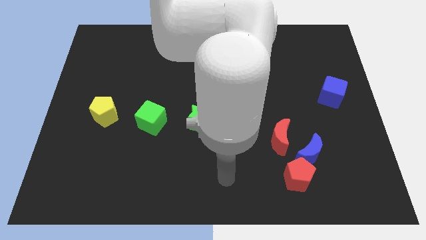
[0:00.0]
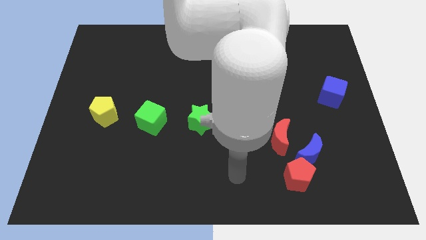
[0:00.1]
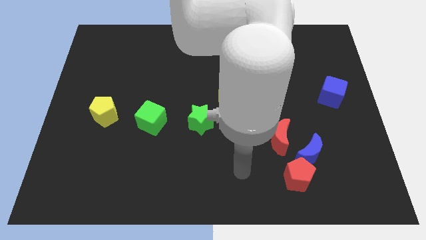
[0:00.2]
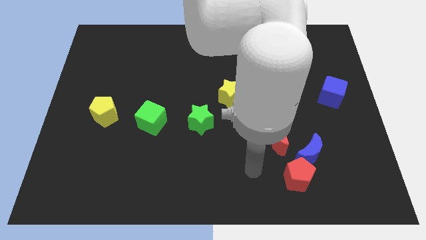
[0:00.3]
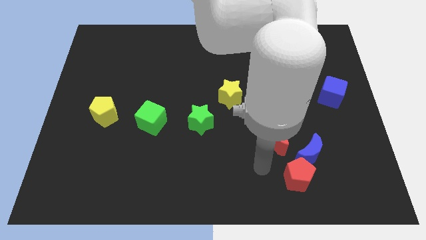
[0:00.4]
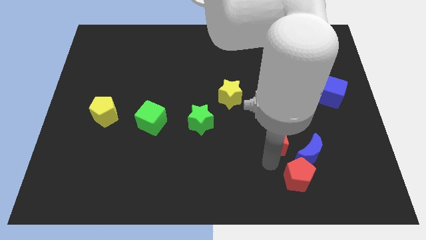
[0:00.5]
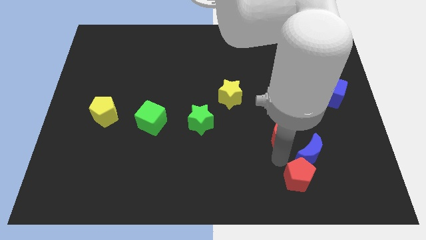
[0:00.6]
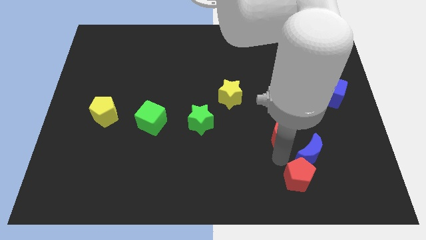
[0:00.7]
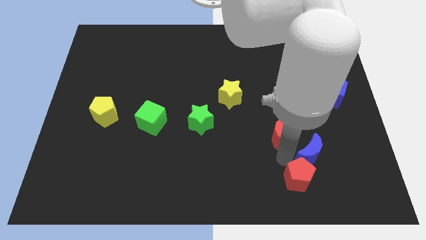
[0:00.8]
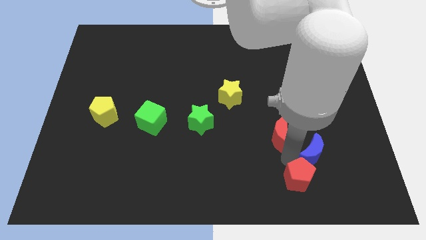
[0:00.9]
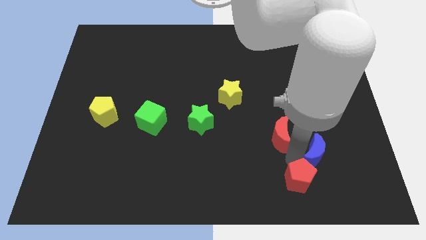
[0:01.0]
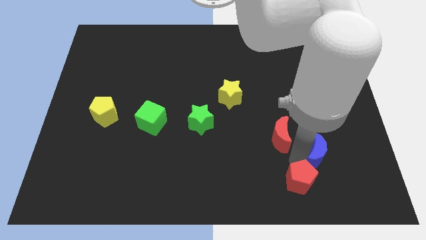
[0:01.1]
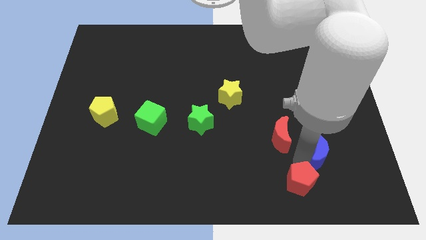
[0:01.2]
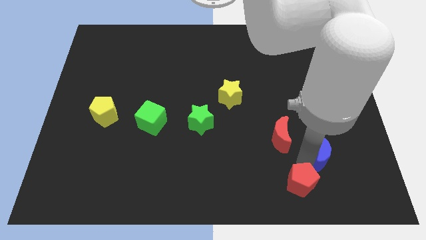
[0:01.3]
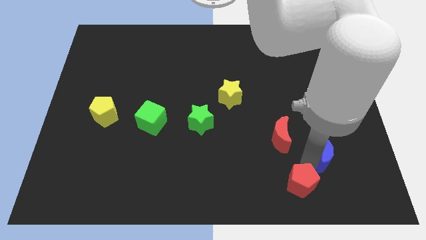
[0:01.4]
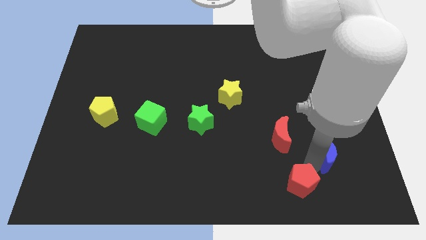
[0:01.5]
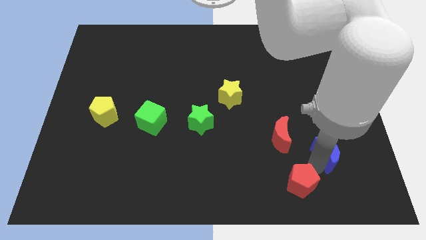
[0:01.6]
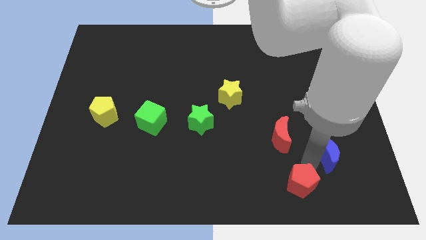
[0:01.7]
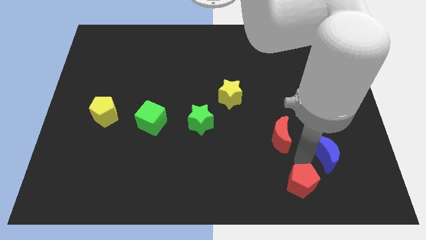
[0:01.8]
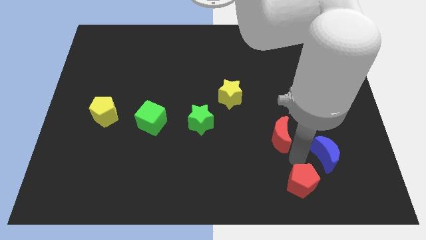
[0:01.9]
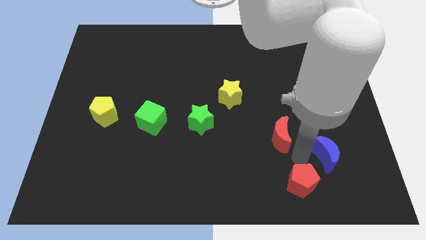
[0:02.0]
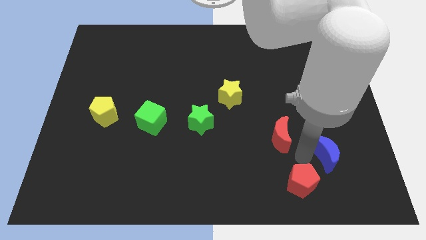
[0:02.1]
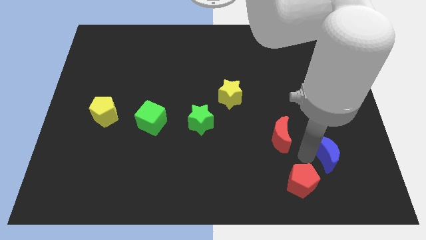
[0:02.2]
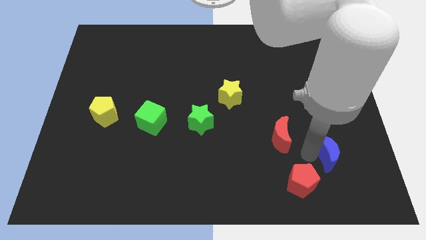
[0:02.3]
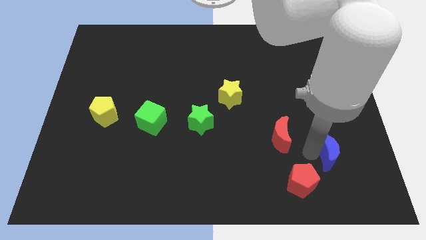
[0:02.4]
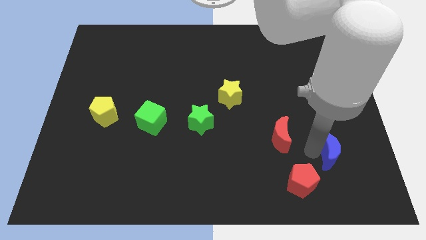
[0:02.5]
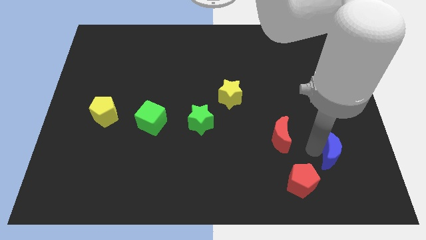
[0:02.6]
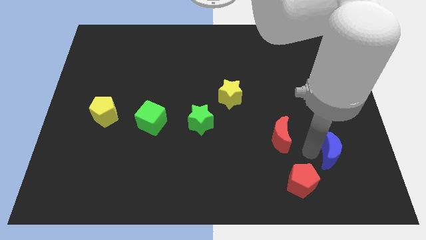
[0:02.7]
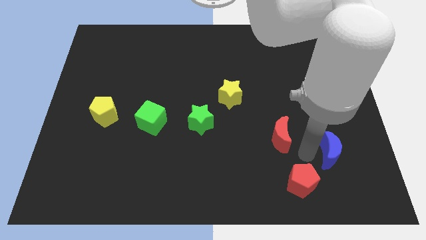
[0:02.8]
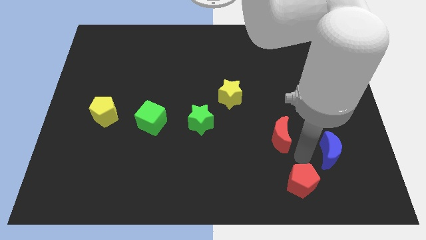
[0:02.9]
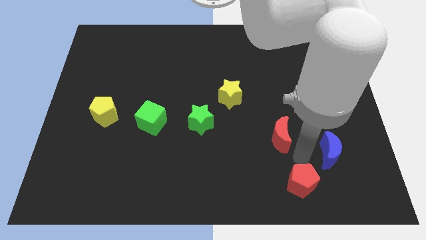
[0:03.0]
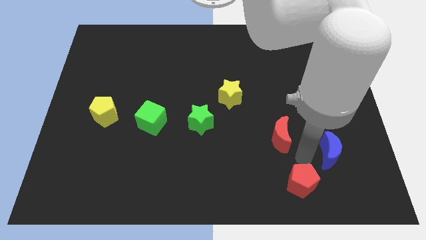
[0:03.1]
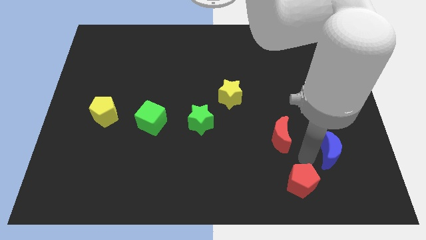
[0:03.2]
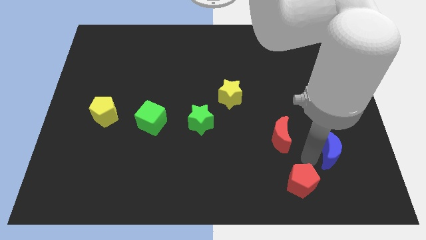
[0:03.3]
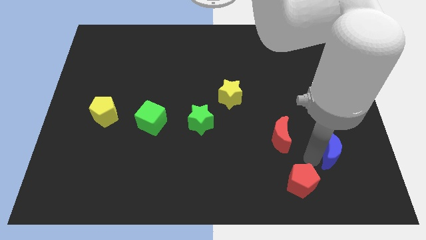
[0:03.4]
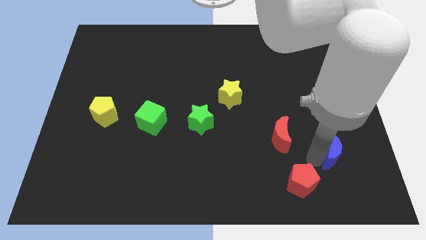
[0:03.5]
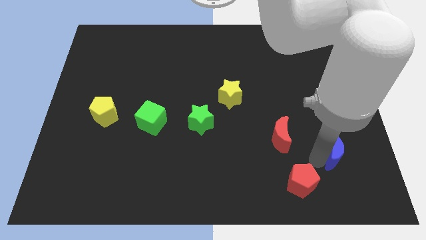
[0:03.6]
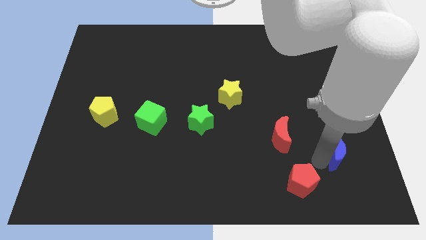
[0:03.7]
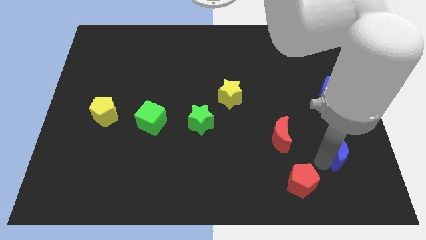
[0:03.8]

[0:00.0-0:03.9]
separate the blue moon from the red pentagon and red moon

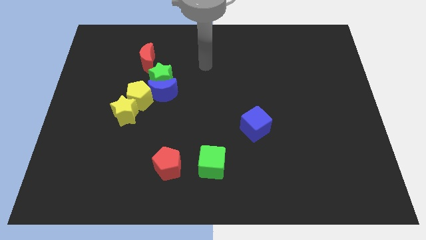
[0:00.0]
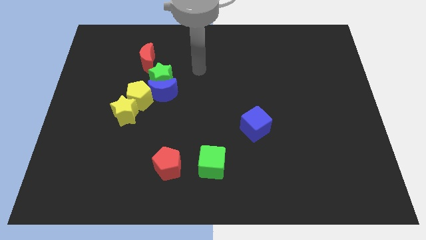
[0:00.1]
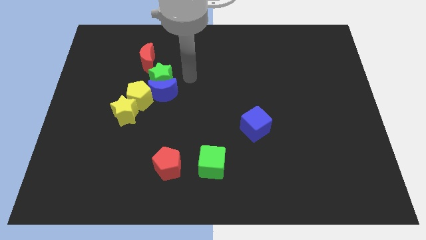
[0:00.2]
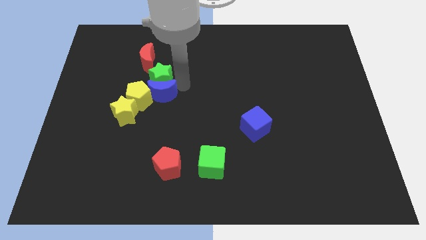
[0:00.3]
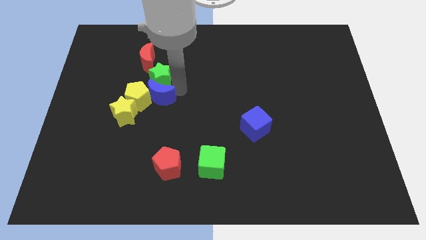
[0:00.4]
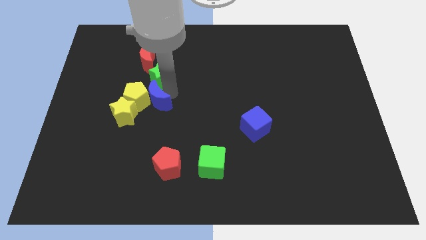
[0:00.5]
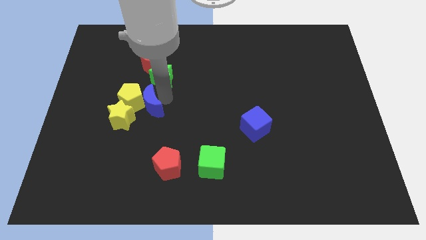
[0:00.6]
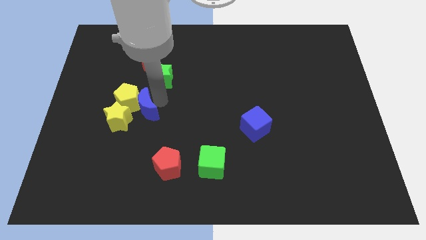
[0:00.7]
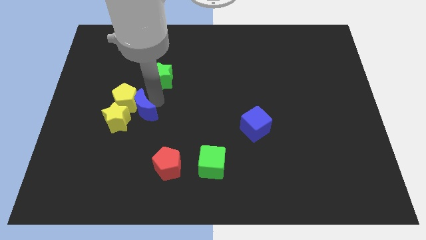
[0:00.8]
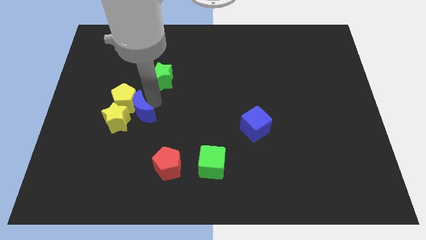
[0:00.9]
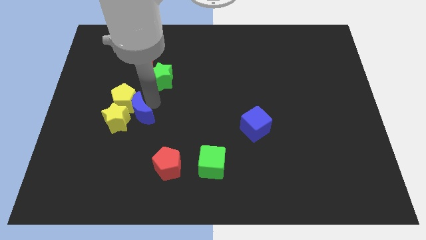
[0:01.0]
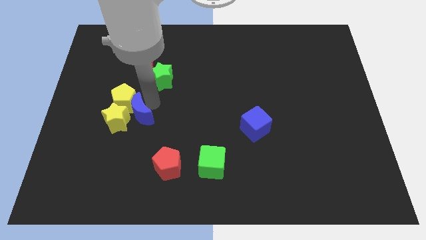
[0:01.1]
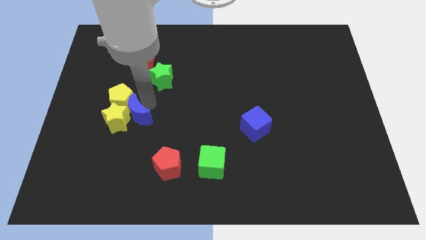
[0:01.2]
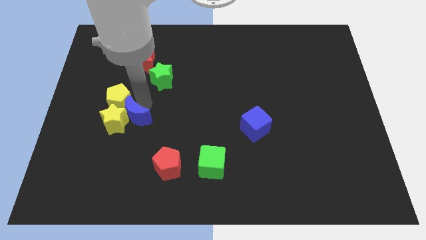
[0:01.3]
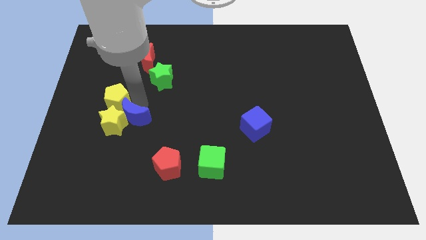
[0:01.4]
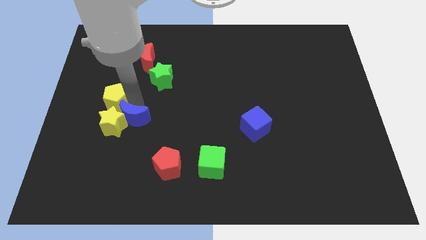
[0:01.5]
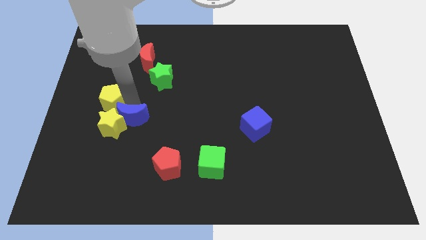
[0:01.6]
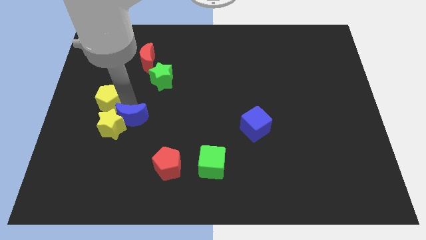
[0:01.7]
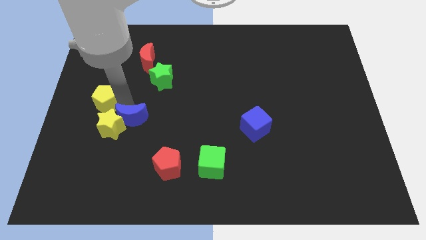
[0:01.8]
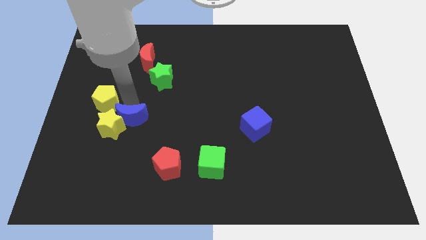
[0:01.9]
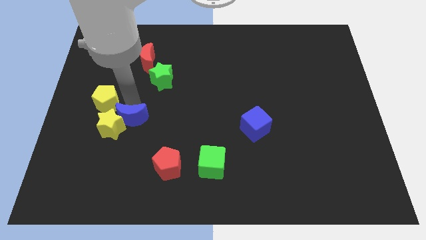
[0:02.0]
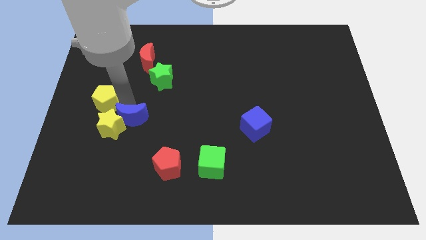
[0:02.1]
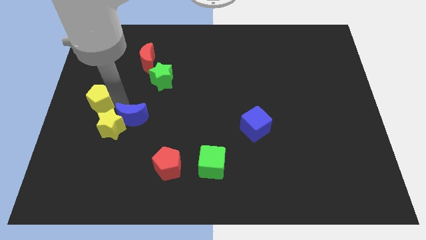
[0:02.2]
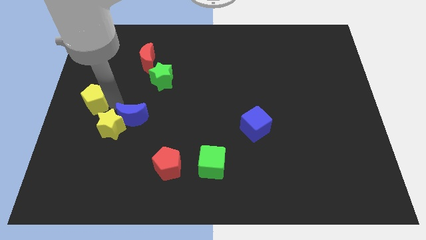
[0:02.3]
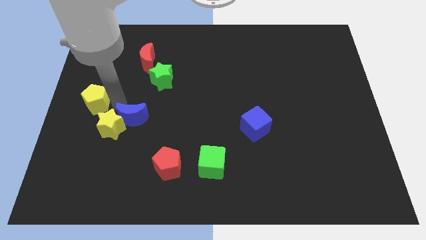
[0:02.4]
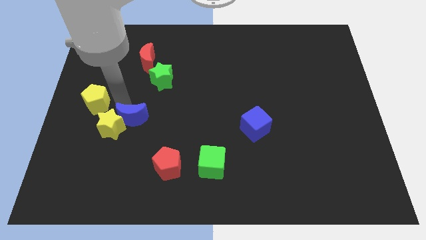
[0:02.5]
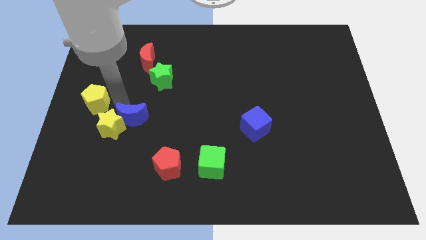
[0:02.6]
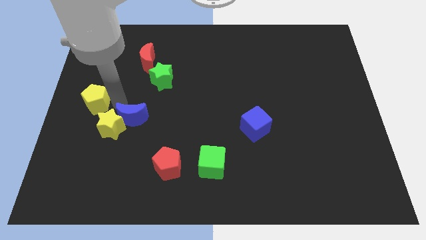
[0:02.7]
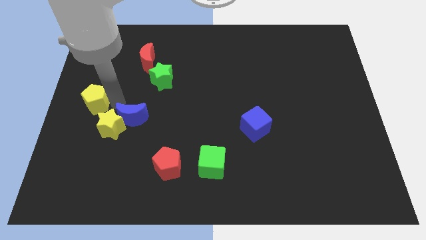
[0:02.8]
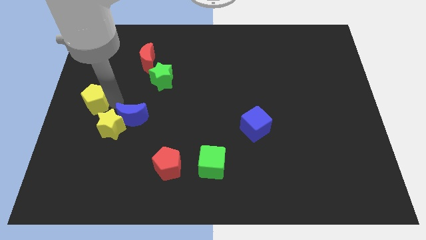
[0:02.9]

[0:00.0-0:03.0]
move the yellow pentagon away from the group

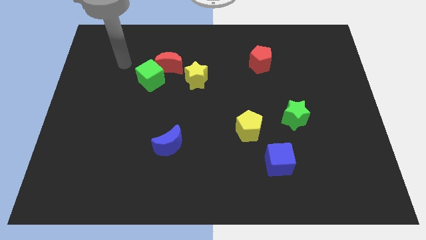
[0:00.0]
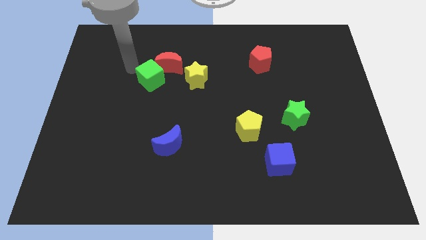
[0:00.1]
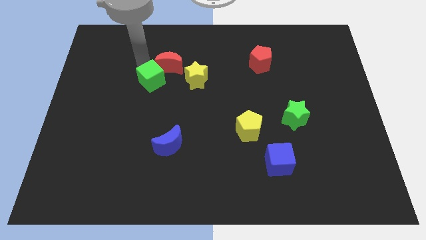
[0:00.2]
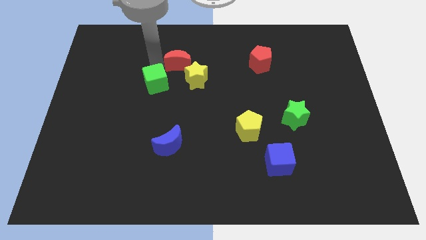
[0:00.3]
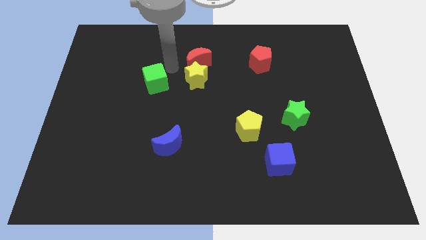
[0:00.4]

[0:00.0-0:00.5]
pull the green cube apart from the red moon

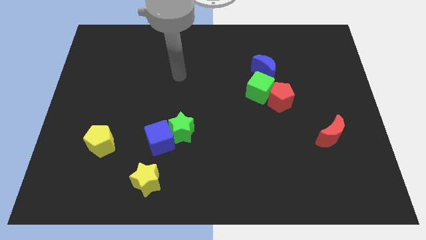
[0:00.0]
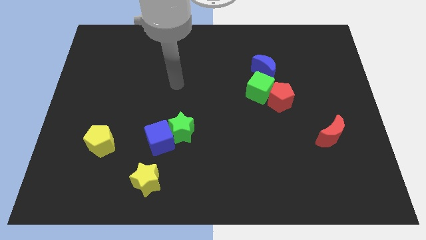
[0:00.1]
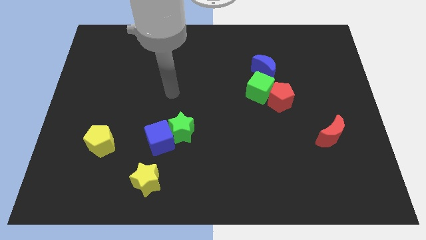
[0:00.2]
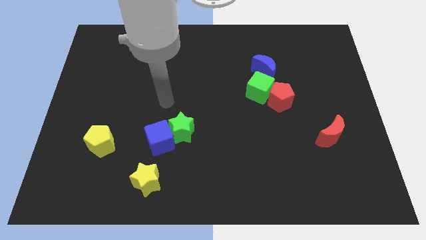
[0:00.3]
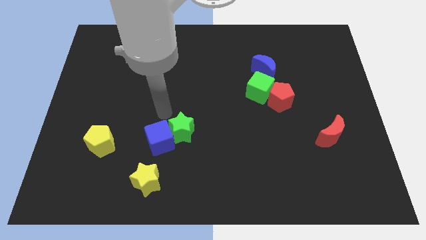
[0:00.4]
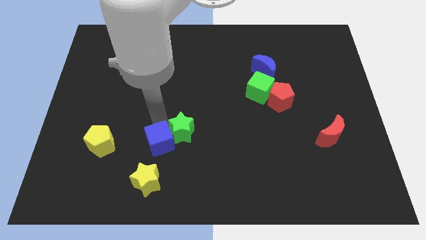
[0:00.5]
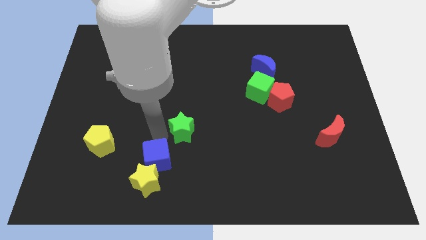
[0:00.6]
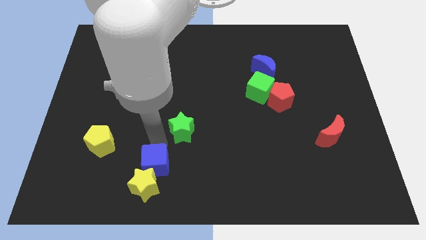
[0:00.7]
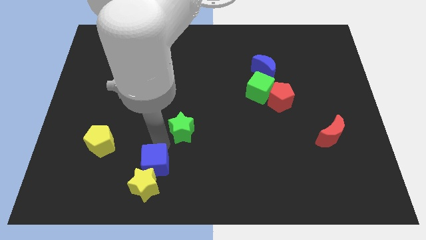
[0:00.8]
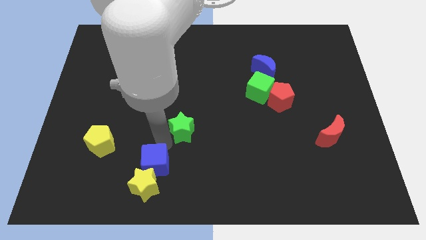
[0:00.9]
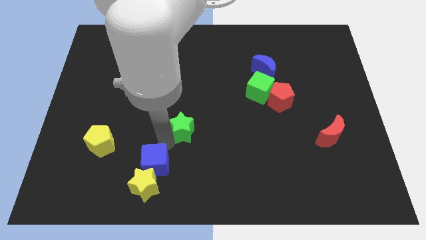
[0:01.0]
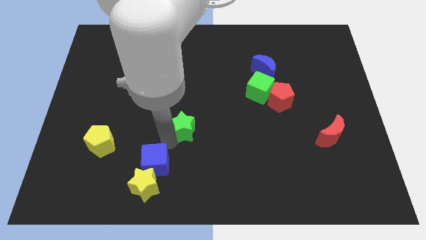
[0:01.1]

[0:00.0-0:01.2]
move the green star away from the blue cube

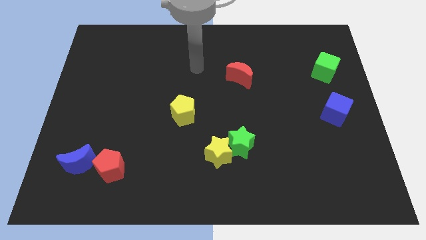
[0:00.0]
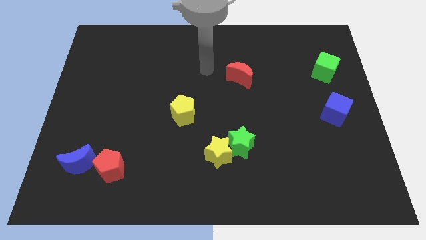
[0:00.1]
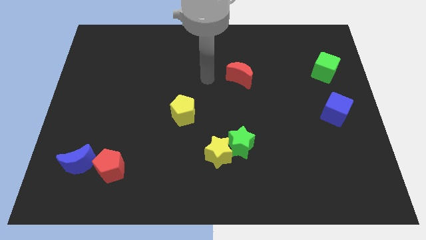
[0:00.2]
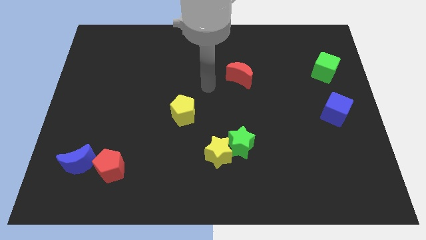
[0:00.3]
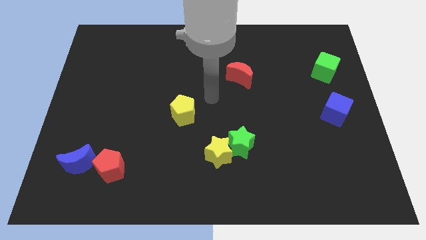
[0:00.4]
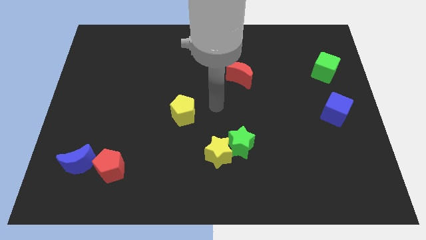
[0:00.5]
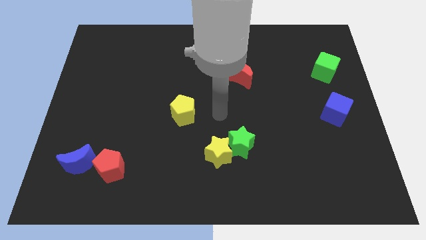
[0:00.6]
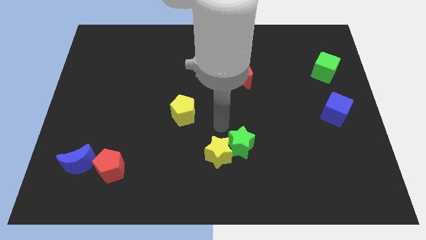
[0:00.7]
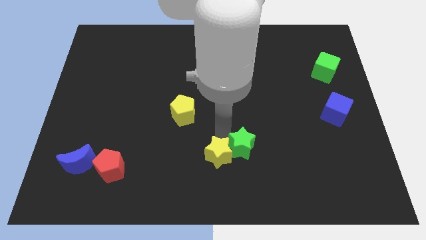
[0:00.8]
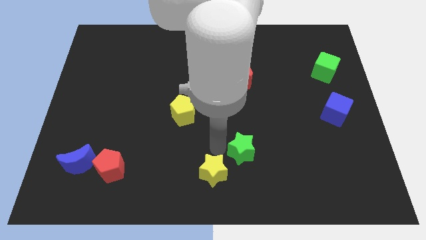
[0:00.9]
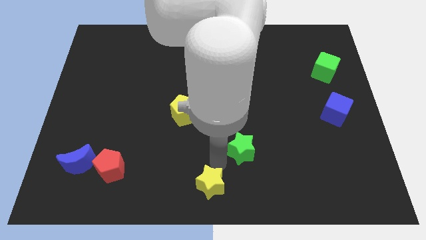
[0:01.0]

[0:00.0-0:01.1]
move the green star away from the yellow star
